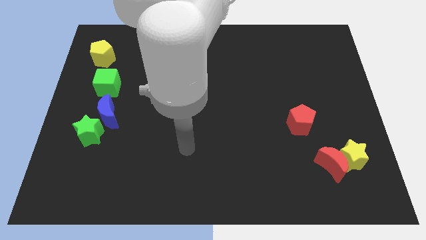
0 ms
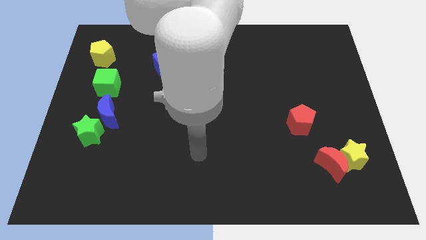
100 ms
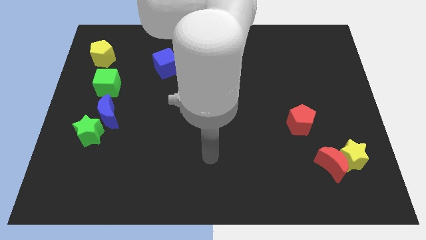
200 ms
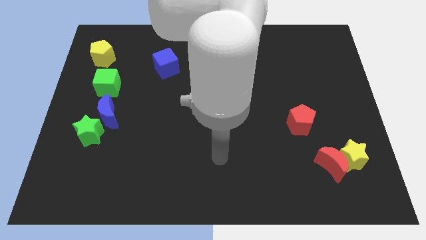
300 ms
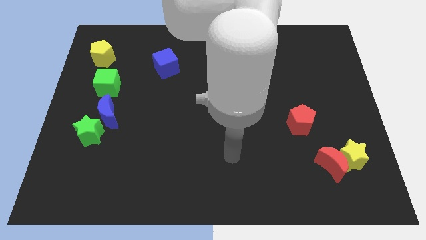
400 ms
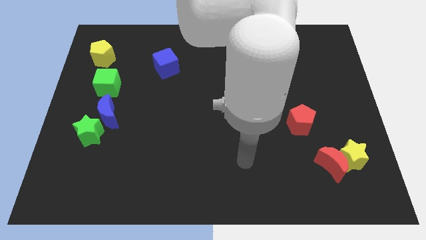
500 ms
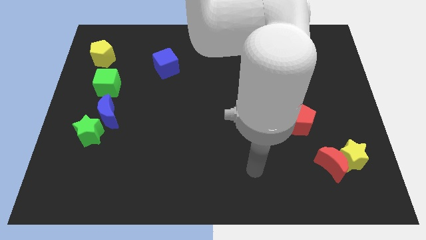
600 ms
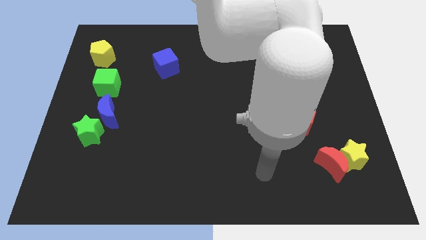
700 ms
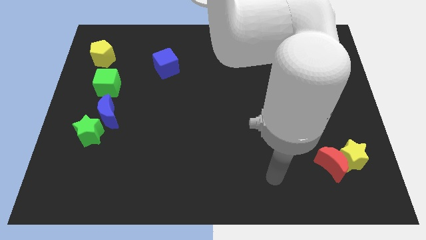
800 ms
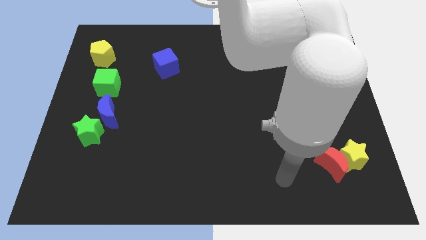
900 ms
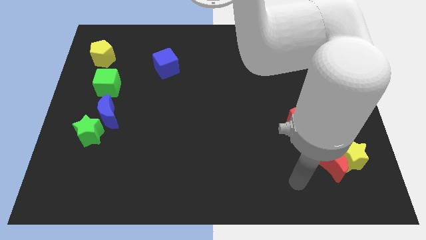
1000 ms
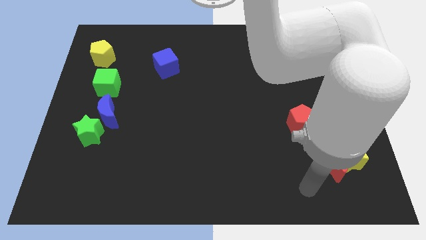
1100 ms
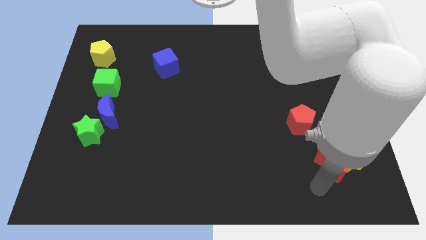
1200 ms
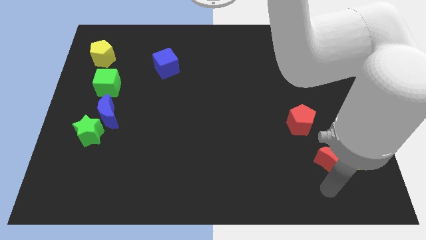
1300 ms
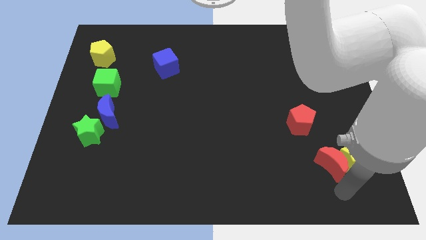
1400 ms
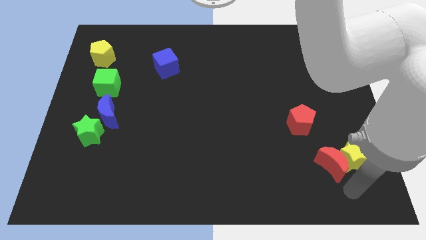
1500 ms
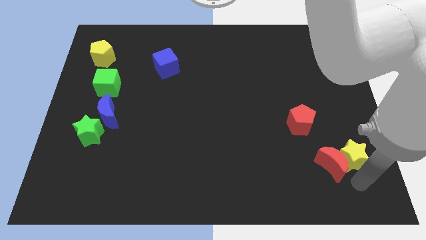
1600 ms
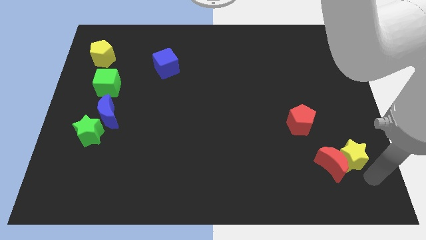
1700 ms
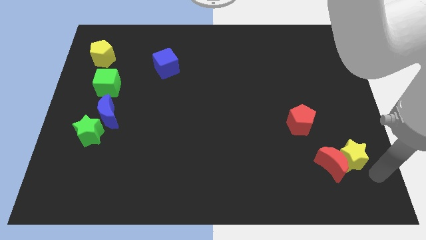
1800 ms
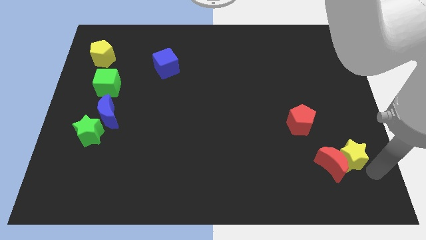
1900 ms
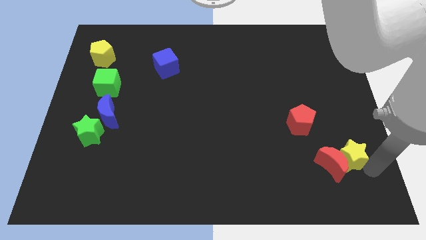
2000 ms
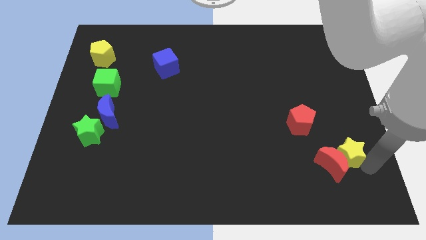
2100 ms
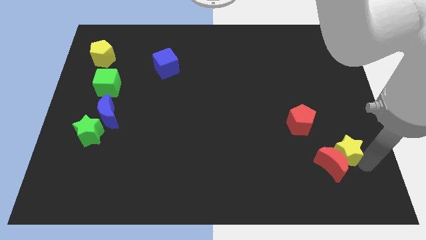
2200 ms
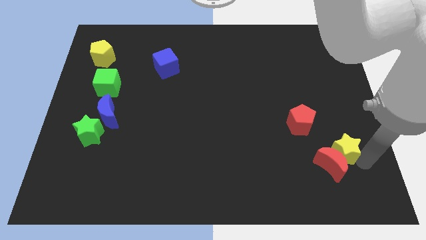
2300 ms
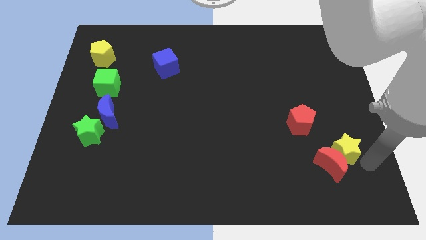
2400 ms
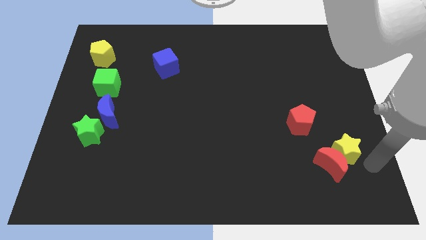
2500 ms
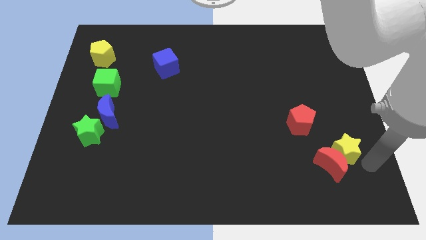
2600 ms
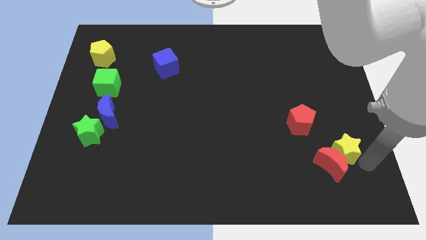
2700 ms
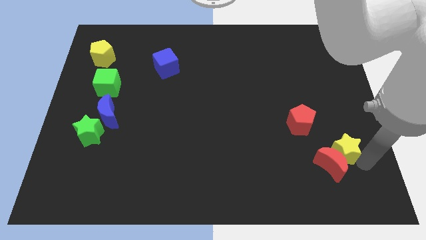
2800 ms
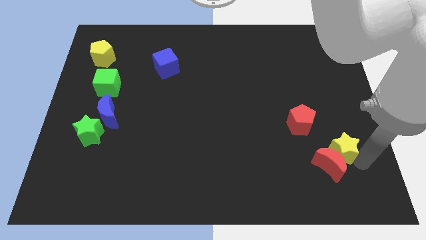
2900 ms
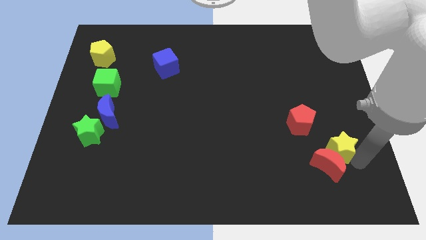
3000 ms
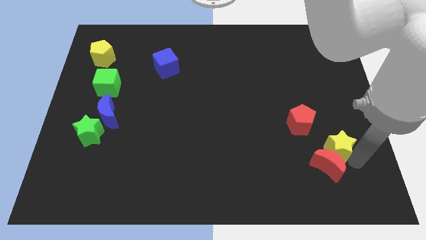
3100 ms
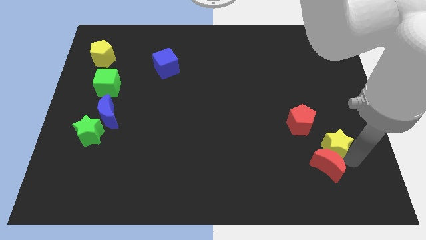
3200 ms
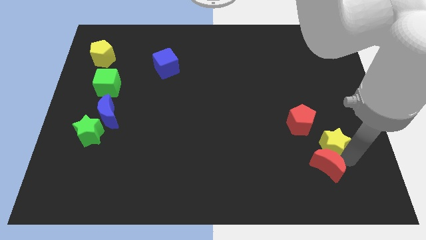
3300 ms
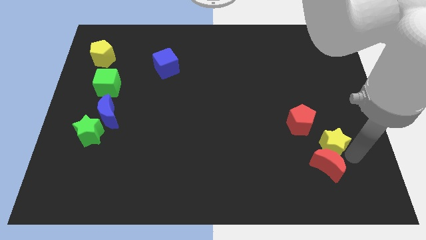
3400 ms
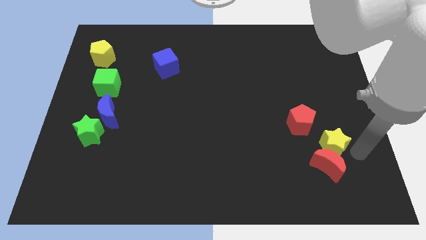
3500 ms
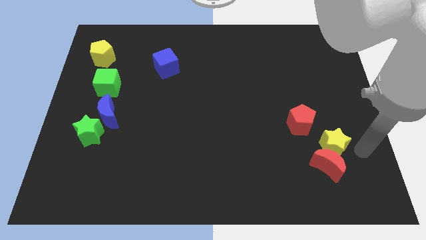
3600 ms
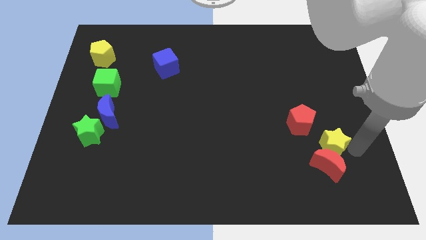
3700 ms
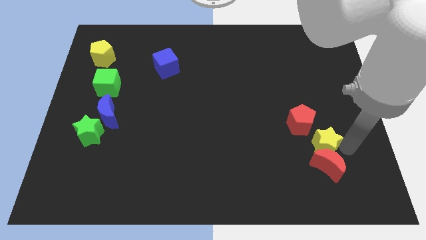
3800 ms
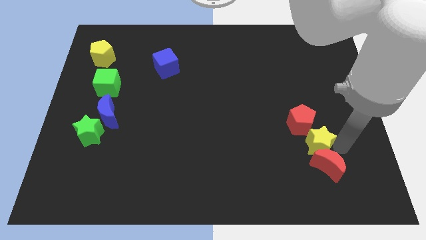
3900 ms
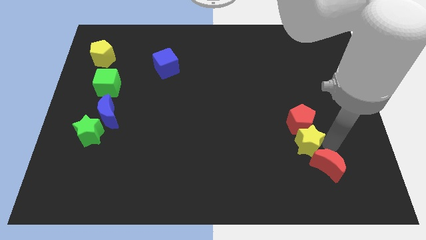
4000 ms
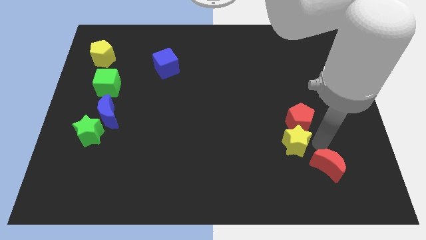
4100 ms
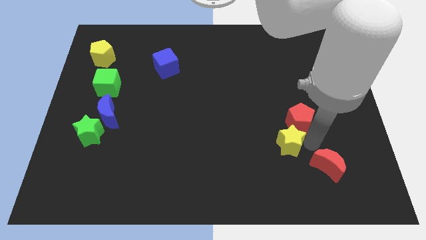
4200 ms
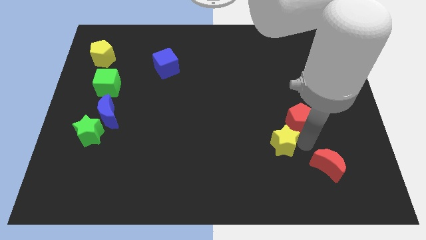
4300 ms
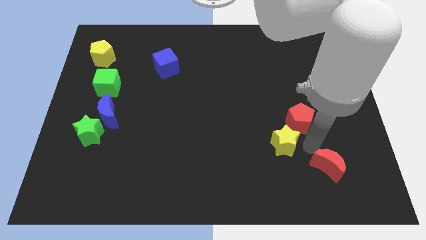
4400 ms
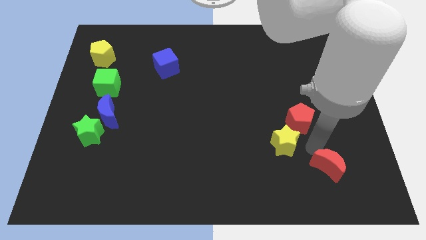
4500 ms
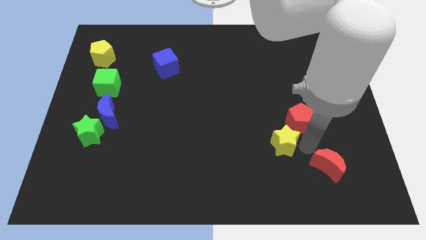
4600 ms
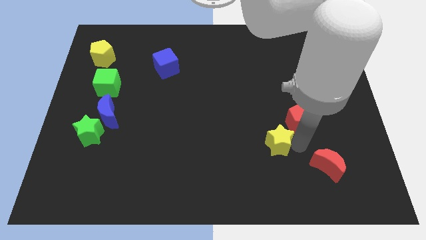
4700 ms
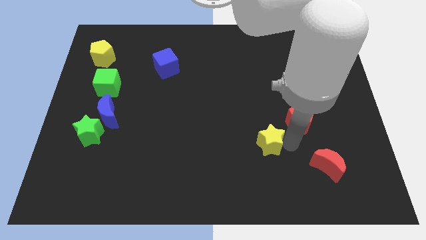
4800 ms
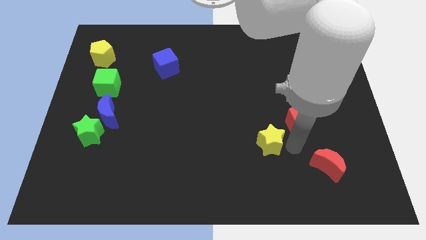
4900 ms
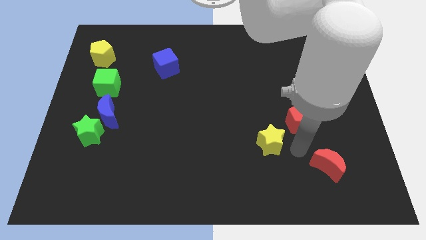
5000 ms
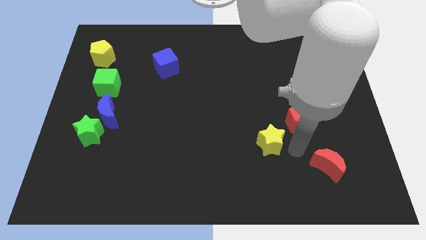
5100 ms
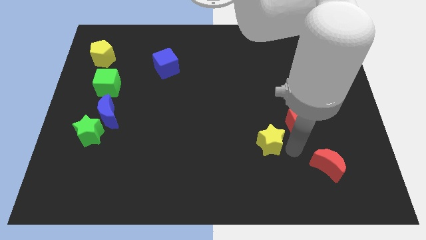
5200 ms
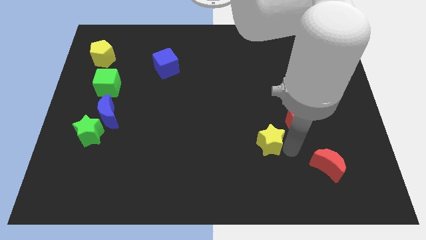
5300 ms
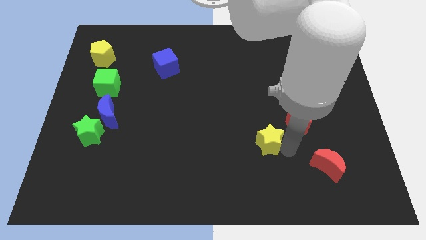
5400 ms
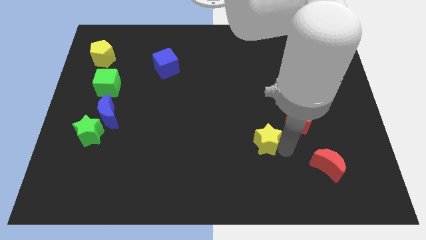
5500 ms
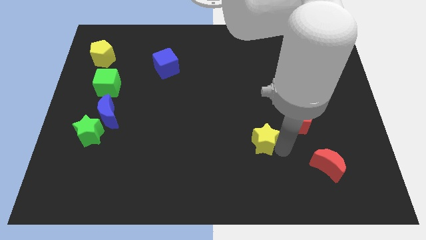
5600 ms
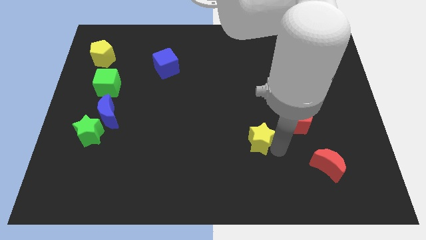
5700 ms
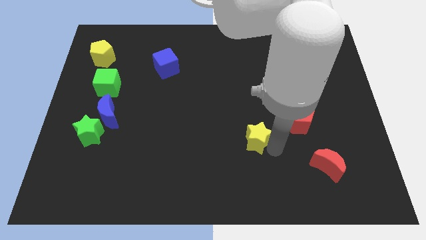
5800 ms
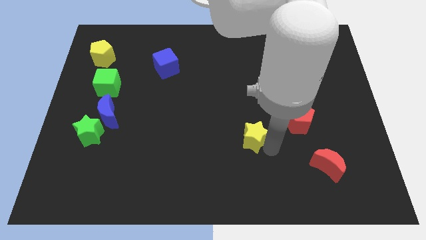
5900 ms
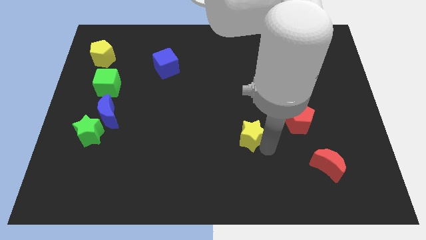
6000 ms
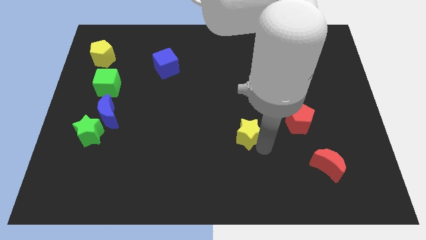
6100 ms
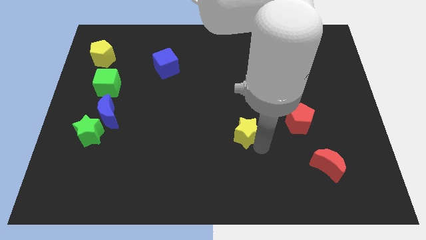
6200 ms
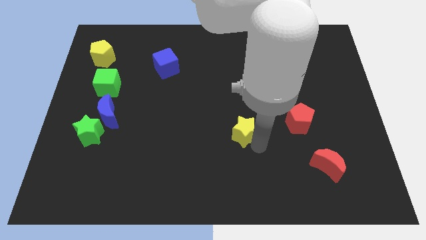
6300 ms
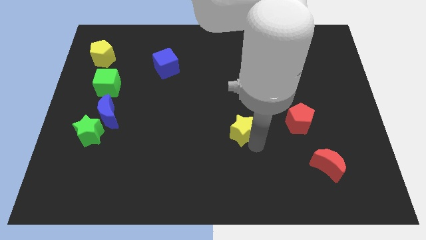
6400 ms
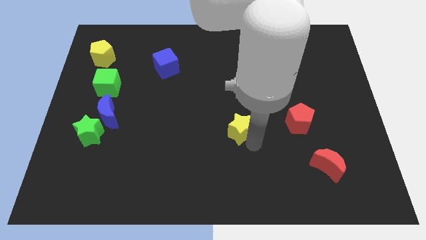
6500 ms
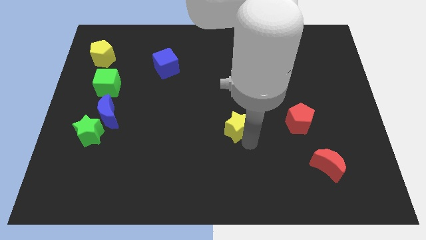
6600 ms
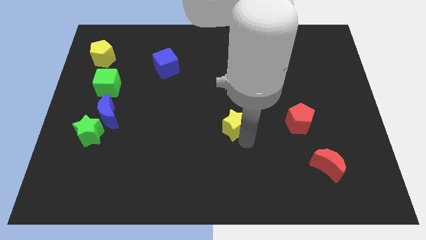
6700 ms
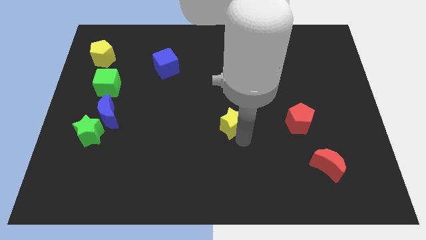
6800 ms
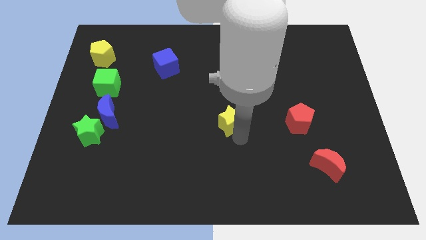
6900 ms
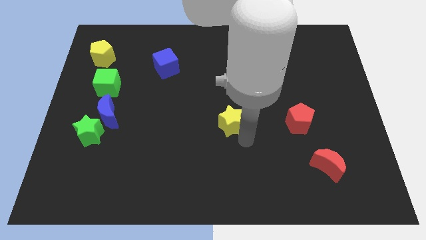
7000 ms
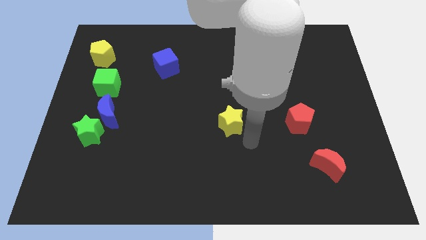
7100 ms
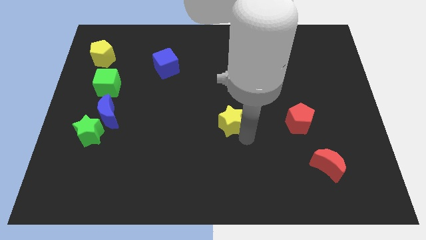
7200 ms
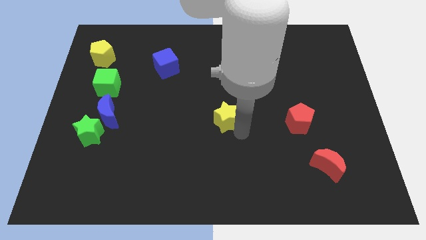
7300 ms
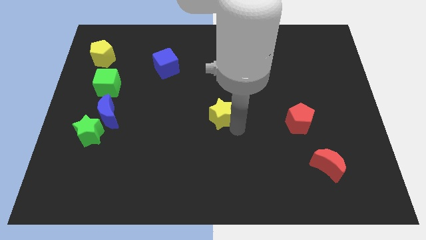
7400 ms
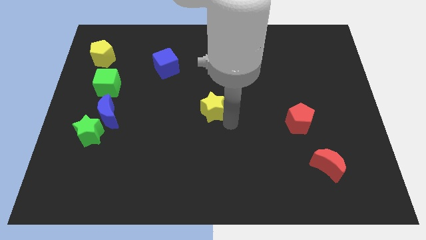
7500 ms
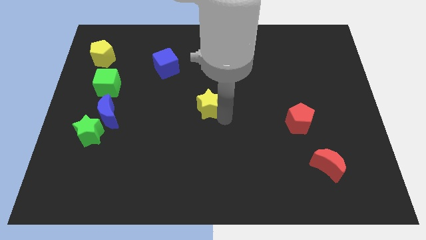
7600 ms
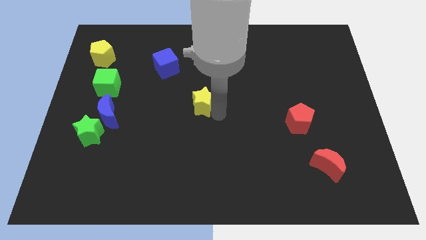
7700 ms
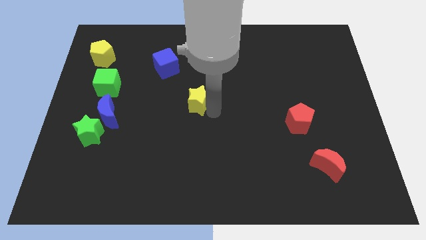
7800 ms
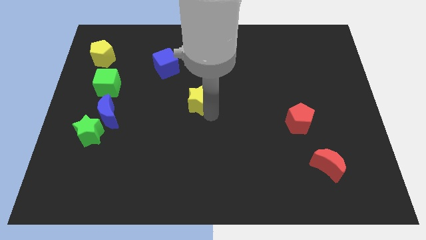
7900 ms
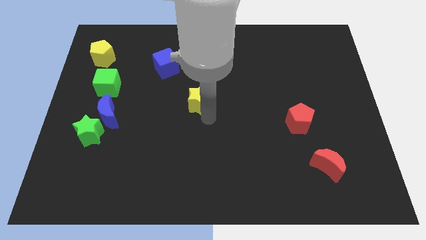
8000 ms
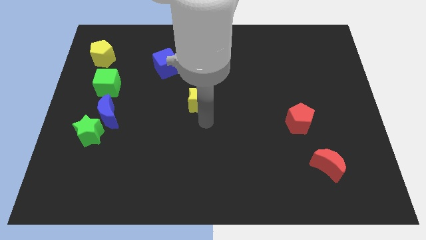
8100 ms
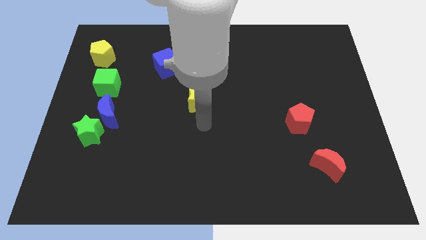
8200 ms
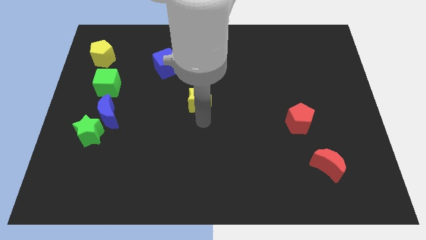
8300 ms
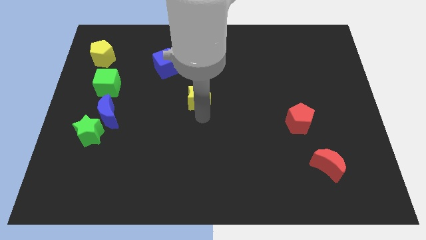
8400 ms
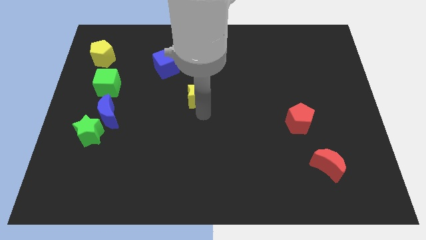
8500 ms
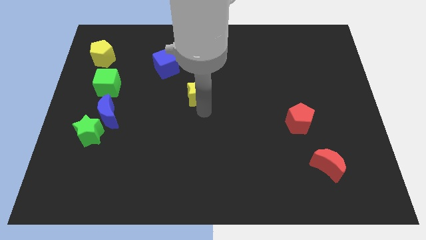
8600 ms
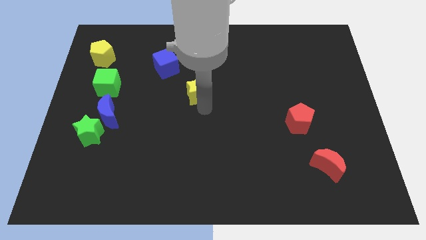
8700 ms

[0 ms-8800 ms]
put the yellow star to the bottom right of the blue cube
